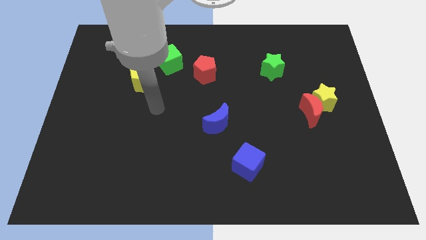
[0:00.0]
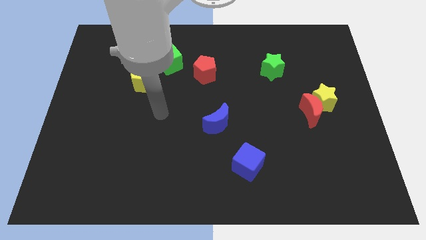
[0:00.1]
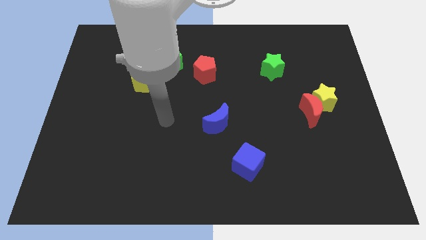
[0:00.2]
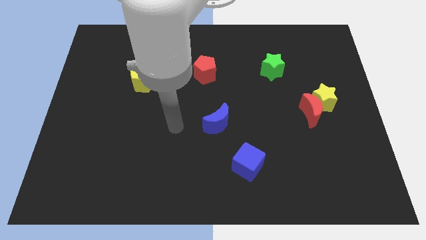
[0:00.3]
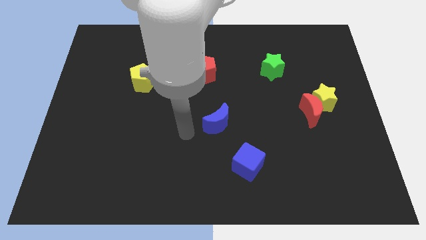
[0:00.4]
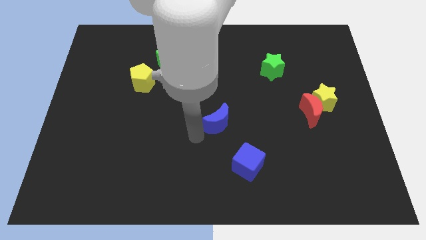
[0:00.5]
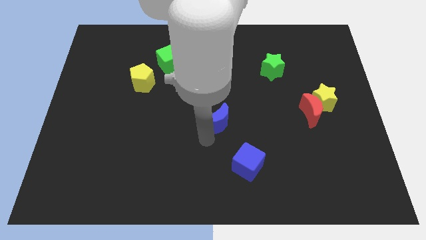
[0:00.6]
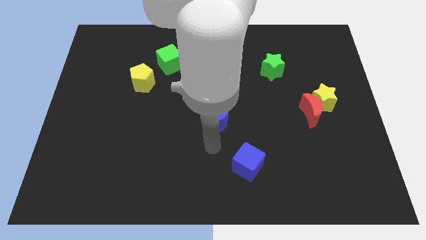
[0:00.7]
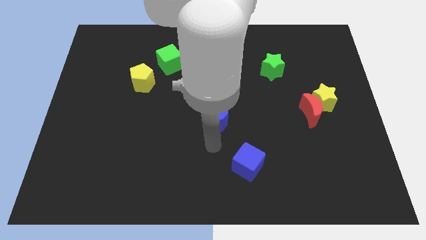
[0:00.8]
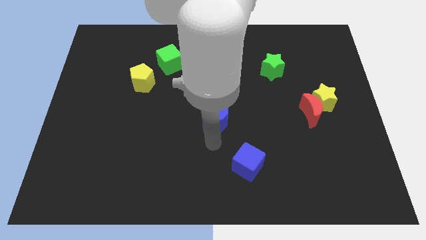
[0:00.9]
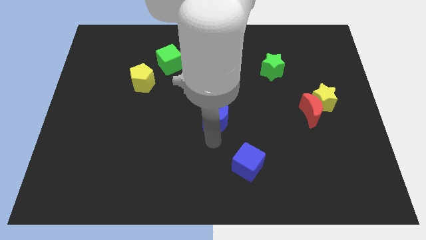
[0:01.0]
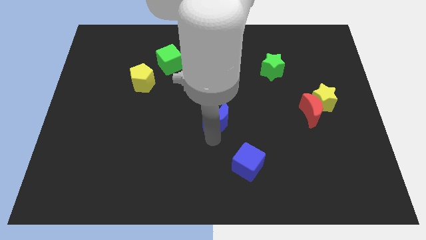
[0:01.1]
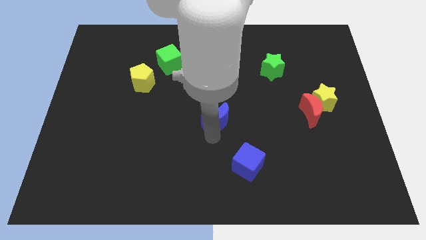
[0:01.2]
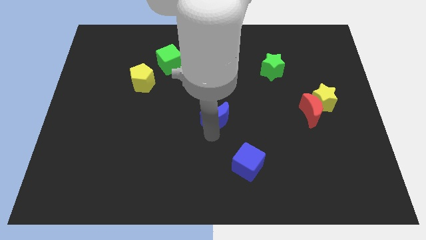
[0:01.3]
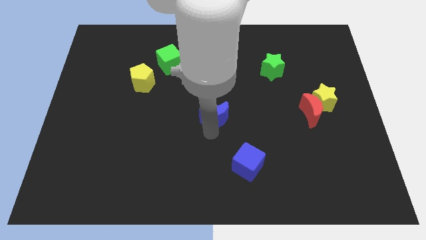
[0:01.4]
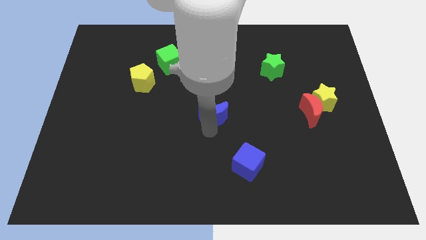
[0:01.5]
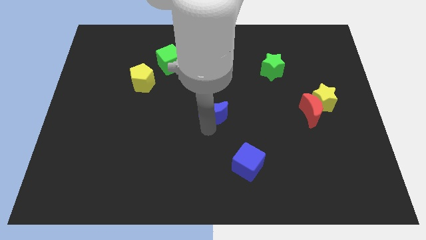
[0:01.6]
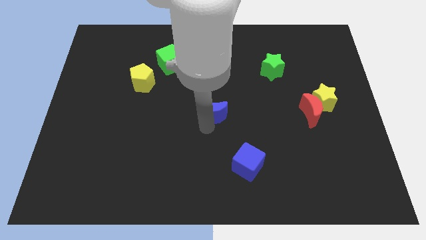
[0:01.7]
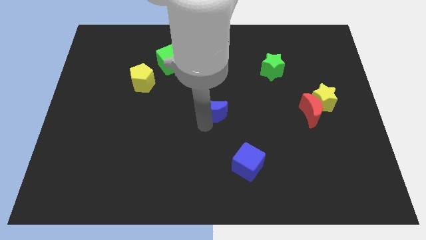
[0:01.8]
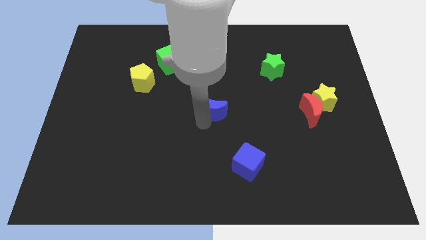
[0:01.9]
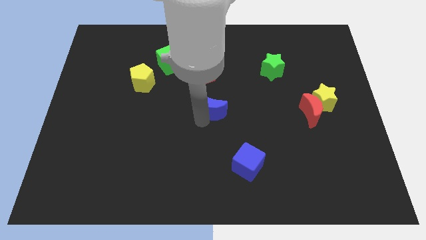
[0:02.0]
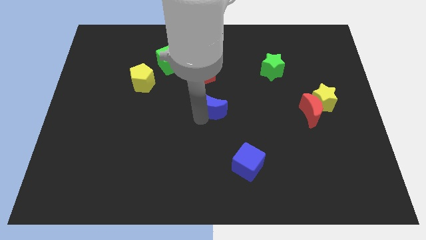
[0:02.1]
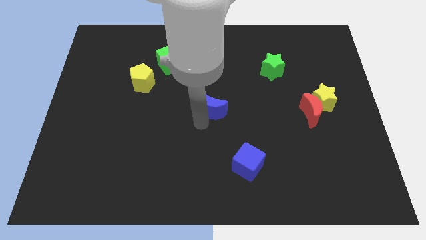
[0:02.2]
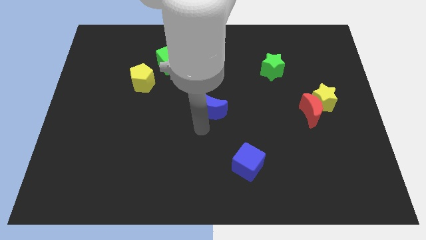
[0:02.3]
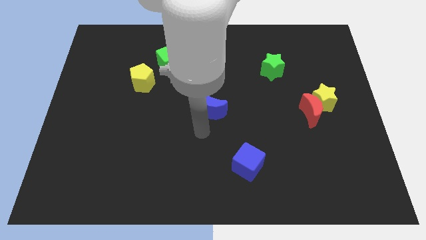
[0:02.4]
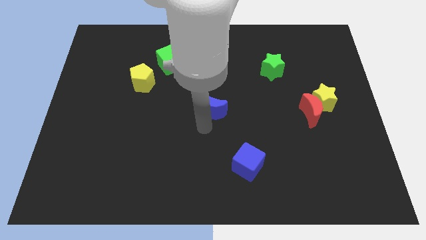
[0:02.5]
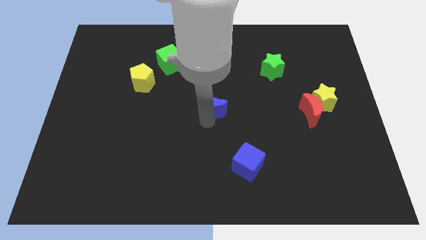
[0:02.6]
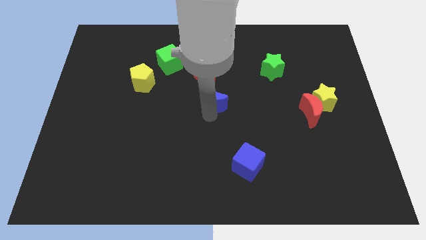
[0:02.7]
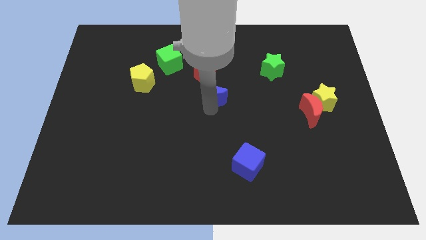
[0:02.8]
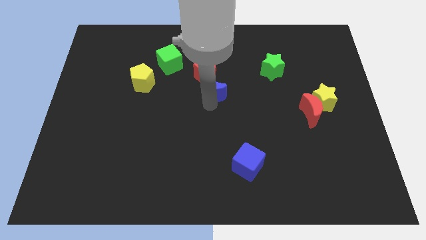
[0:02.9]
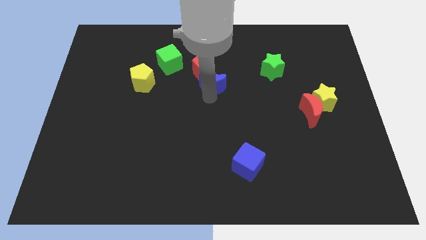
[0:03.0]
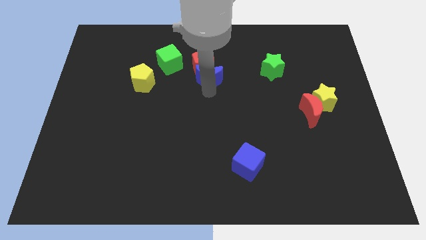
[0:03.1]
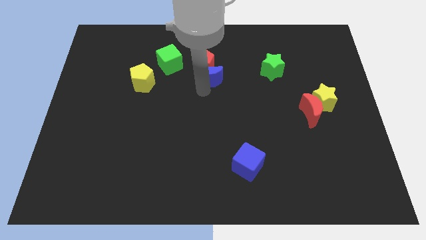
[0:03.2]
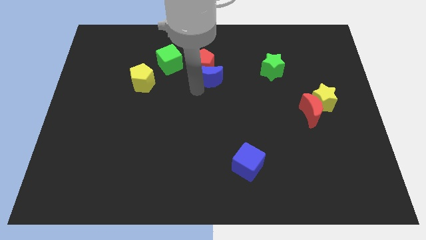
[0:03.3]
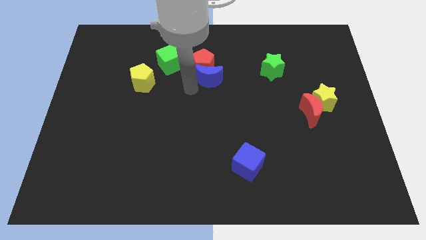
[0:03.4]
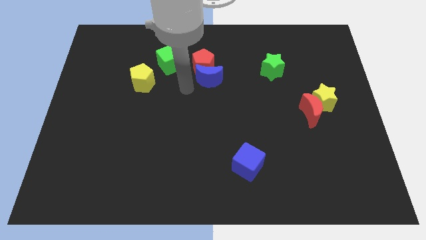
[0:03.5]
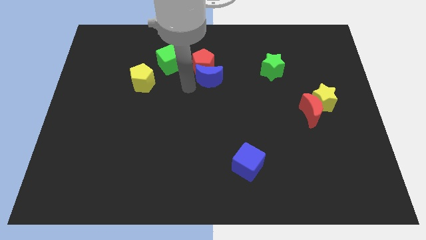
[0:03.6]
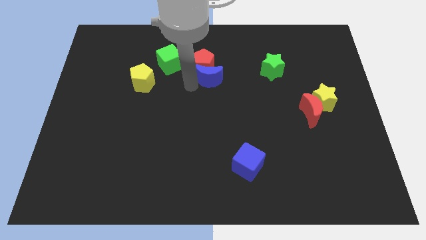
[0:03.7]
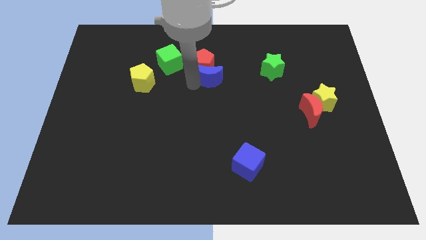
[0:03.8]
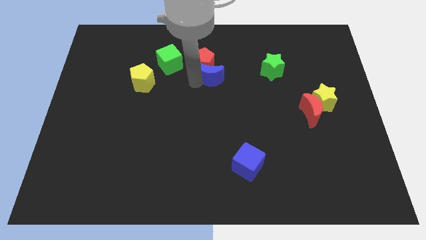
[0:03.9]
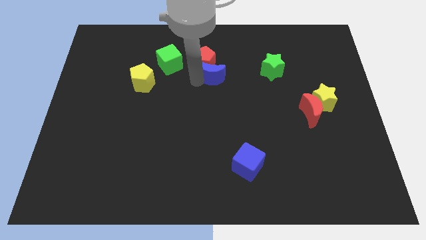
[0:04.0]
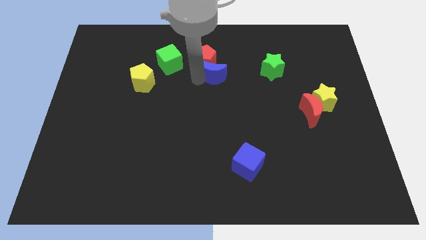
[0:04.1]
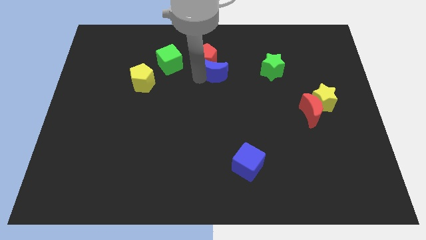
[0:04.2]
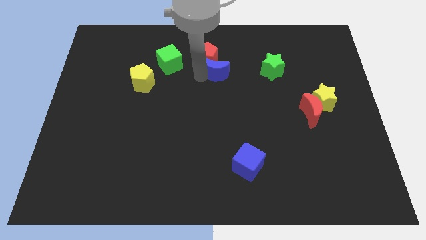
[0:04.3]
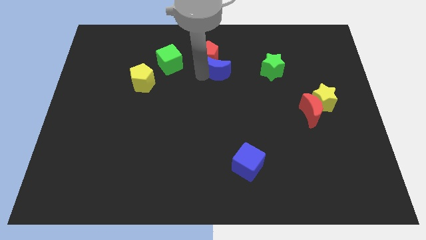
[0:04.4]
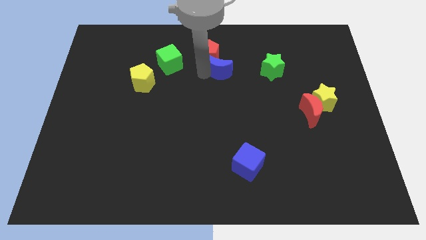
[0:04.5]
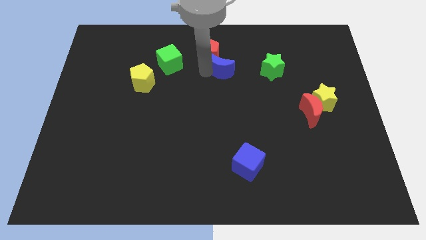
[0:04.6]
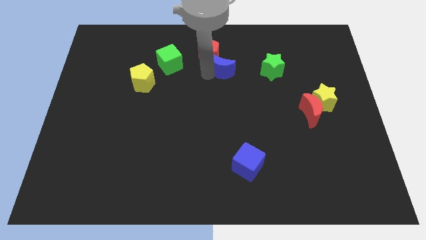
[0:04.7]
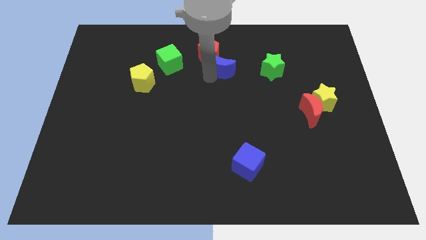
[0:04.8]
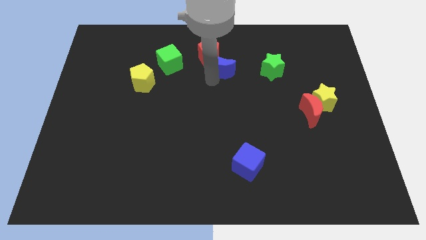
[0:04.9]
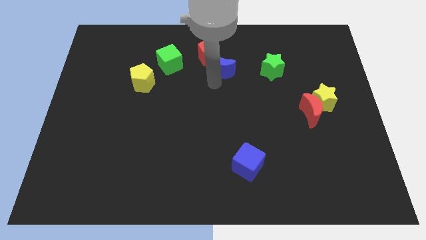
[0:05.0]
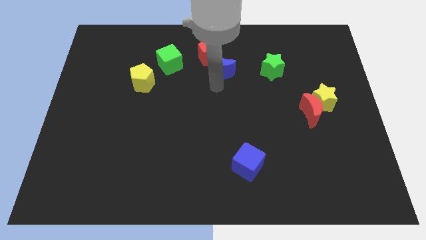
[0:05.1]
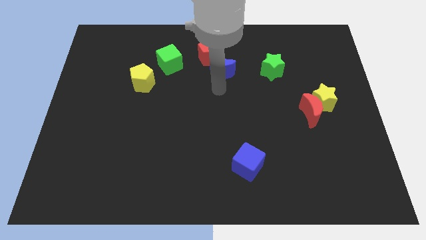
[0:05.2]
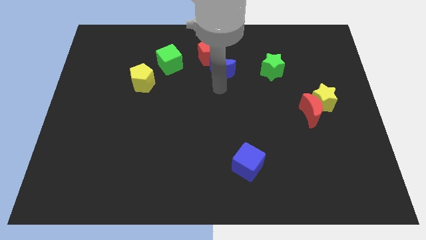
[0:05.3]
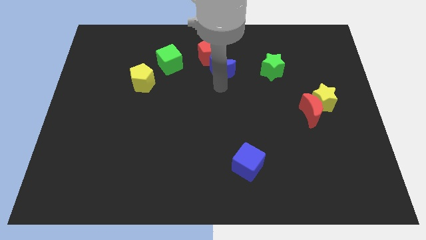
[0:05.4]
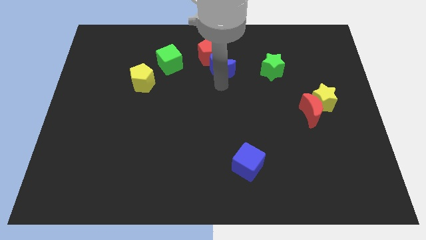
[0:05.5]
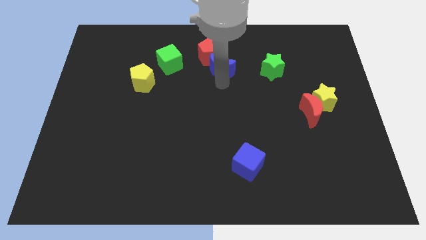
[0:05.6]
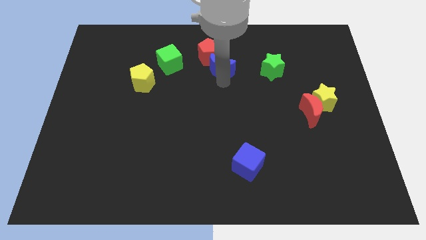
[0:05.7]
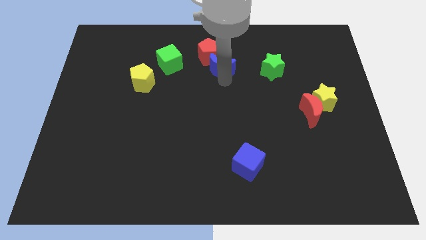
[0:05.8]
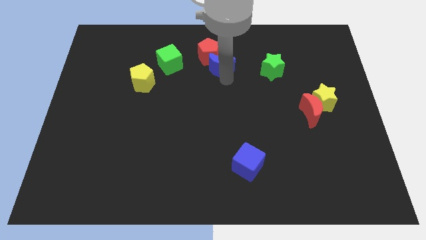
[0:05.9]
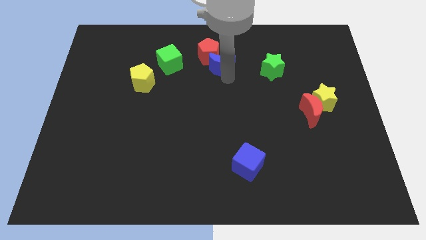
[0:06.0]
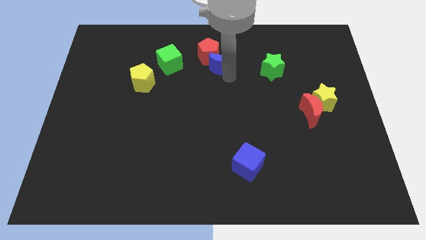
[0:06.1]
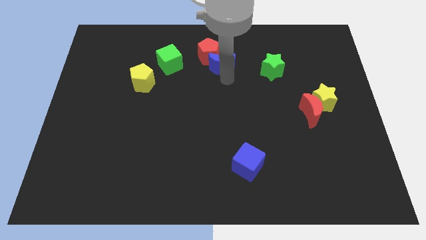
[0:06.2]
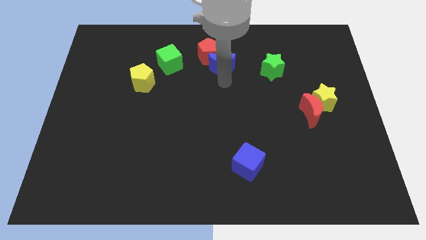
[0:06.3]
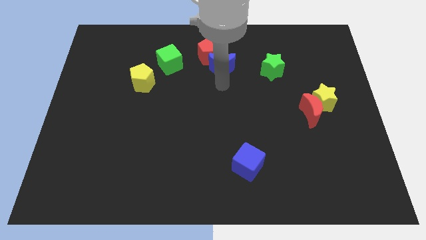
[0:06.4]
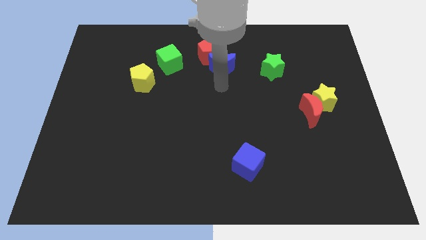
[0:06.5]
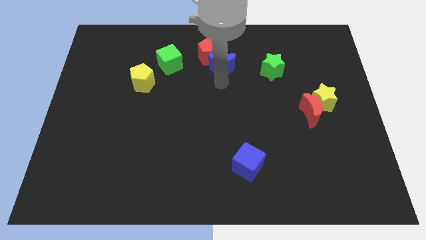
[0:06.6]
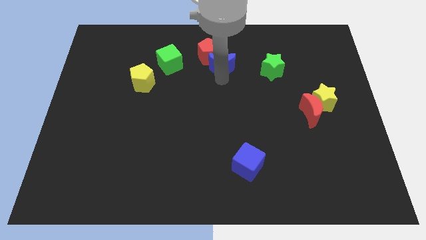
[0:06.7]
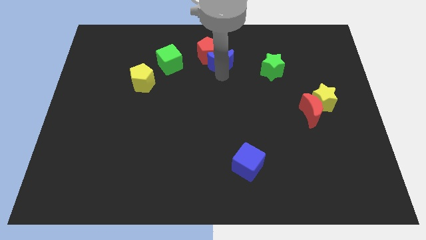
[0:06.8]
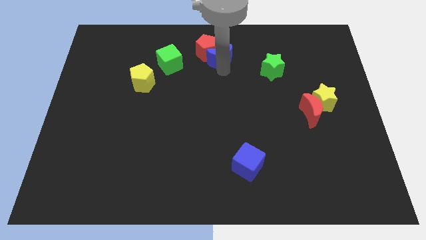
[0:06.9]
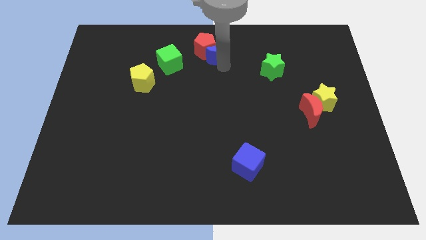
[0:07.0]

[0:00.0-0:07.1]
put the blue moon to the top side
